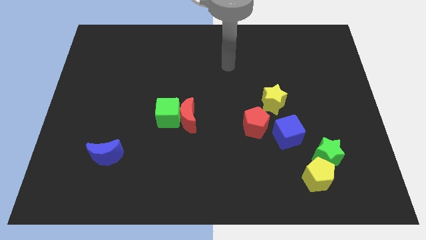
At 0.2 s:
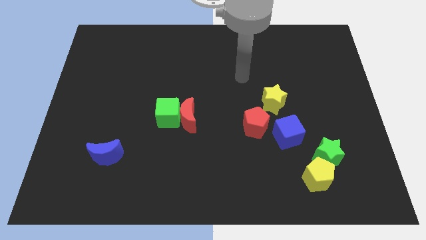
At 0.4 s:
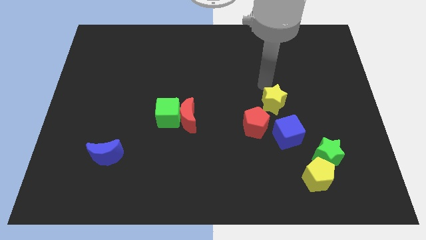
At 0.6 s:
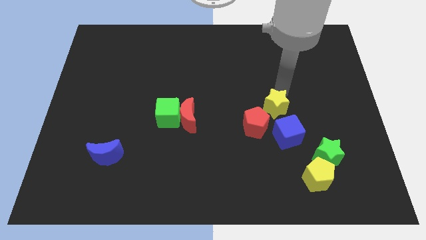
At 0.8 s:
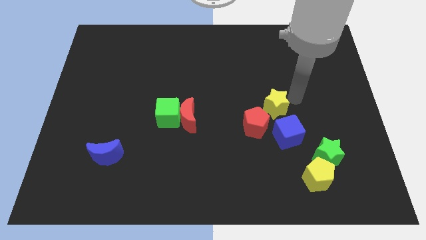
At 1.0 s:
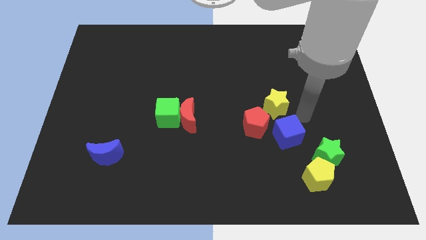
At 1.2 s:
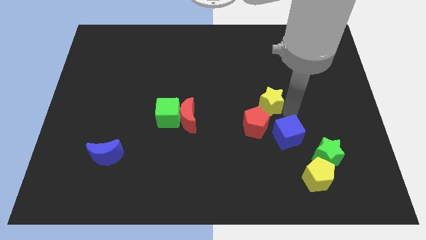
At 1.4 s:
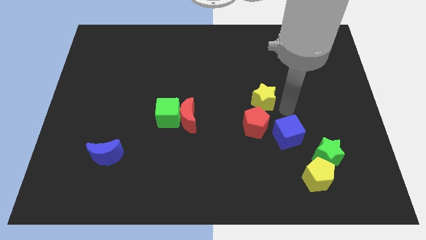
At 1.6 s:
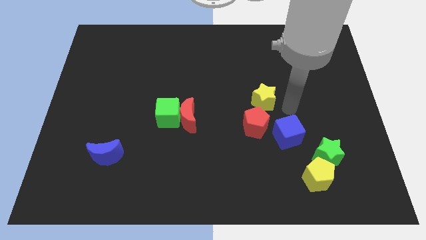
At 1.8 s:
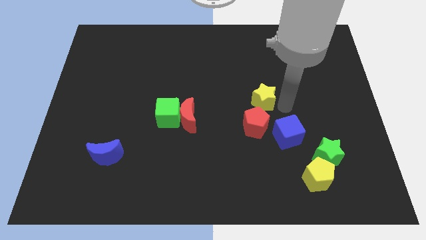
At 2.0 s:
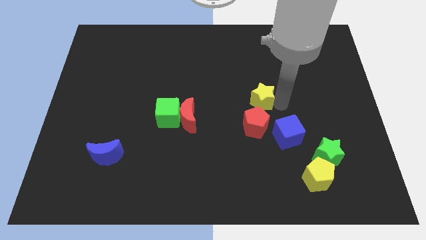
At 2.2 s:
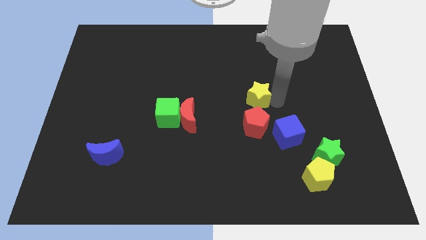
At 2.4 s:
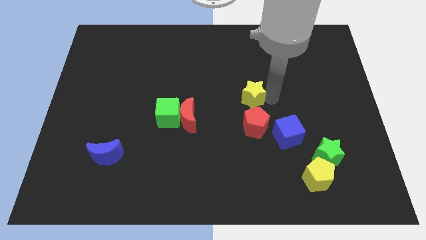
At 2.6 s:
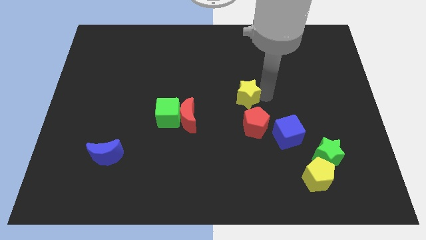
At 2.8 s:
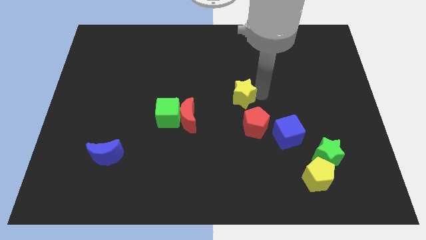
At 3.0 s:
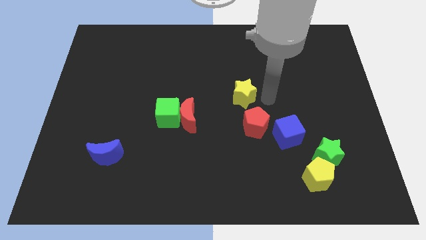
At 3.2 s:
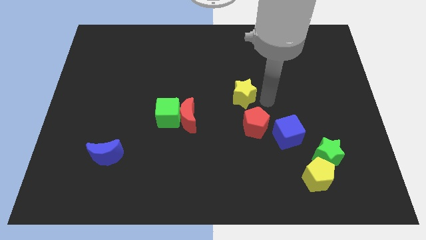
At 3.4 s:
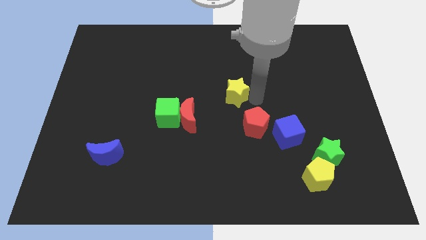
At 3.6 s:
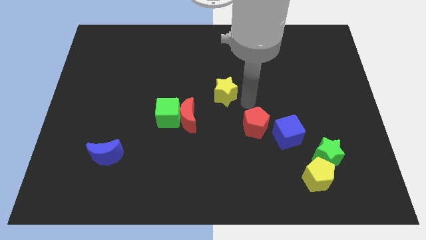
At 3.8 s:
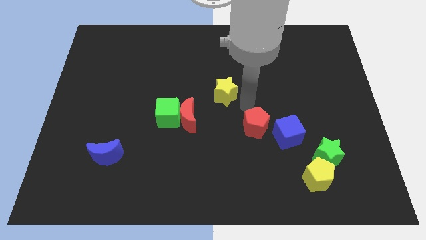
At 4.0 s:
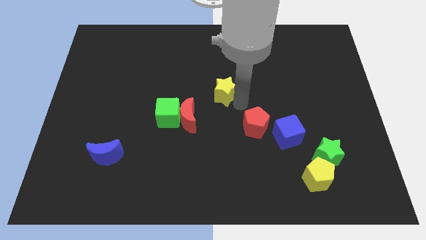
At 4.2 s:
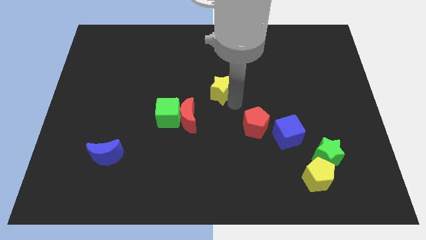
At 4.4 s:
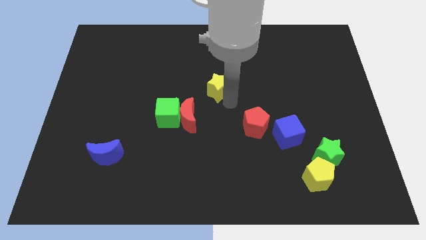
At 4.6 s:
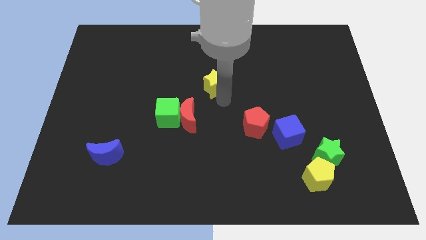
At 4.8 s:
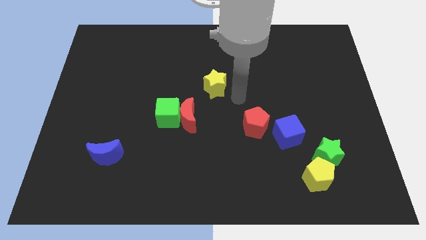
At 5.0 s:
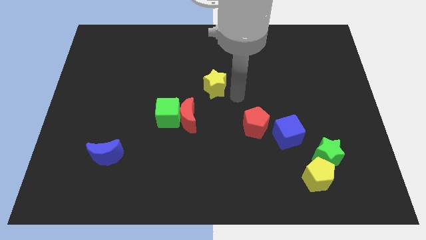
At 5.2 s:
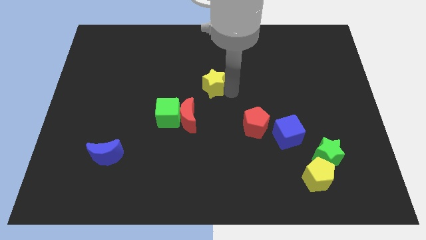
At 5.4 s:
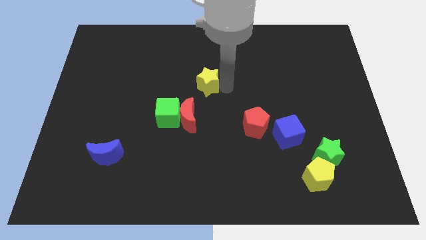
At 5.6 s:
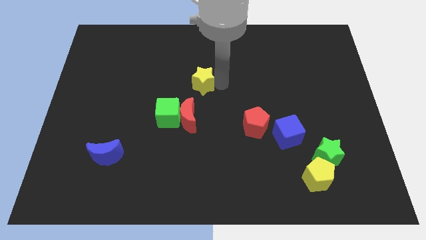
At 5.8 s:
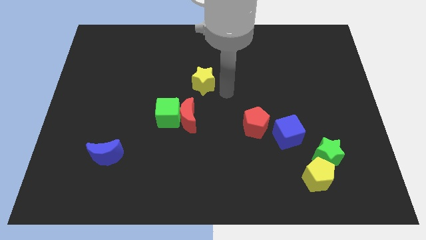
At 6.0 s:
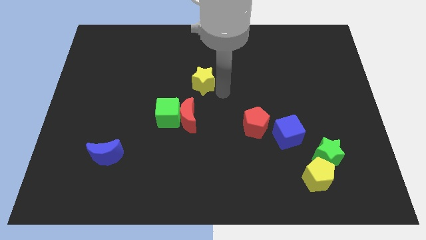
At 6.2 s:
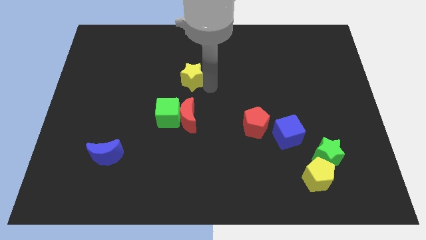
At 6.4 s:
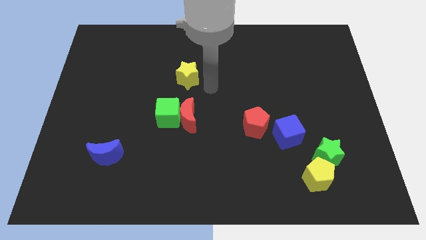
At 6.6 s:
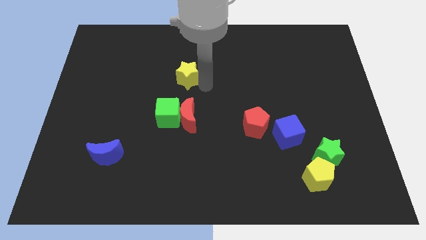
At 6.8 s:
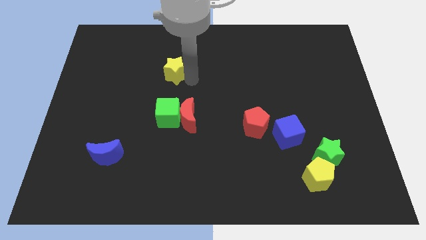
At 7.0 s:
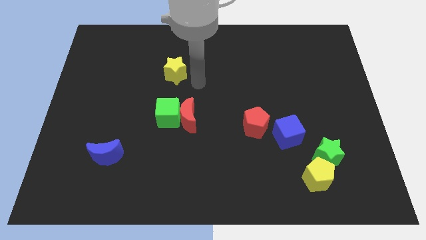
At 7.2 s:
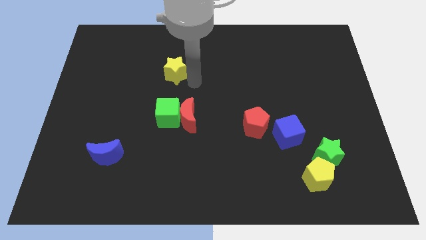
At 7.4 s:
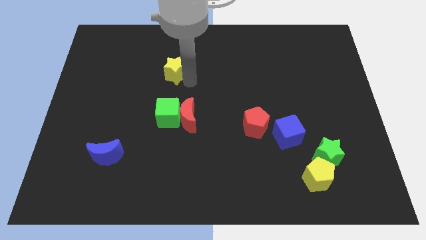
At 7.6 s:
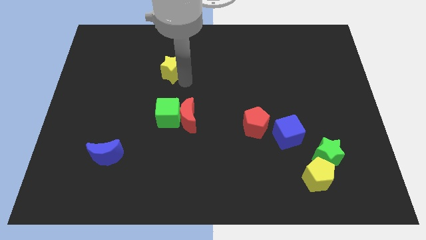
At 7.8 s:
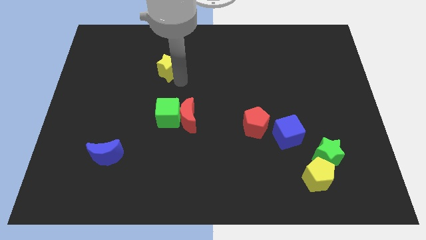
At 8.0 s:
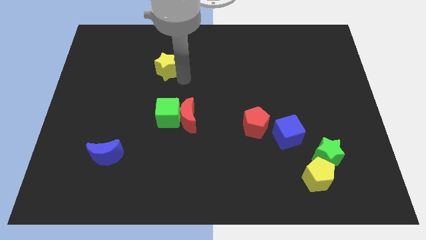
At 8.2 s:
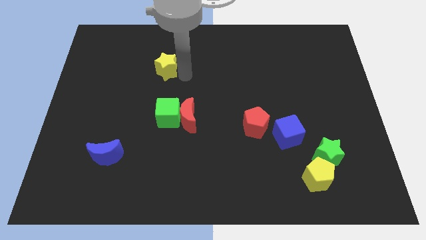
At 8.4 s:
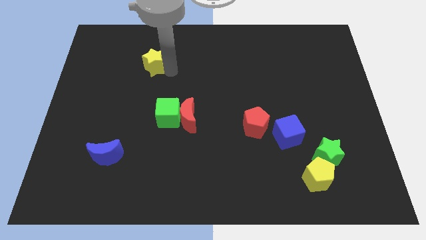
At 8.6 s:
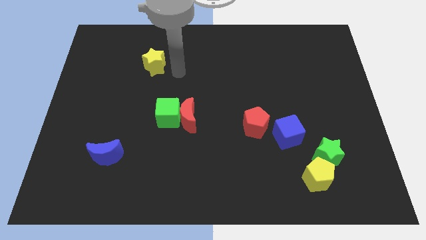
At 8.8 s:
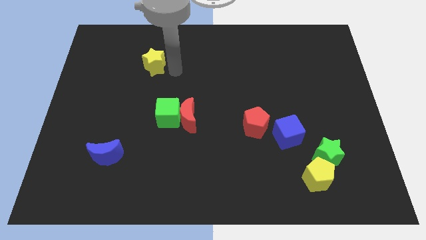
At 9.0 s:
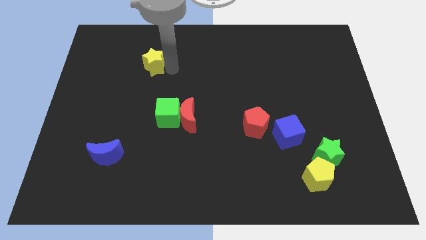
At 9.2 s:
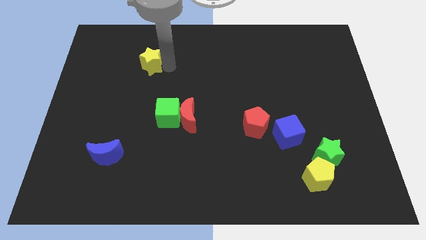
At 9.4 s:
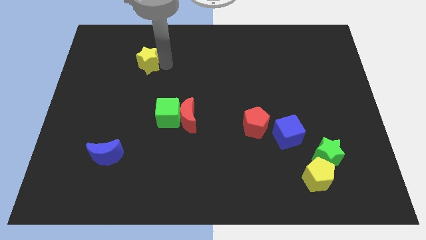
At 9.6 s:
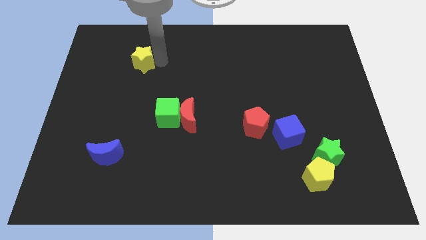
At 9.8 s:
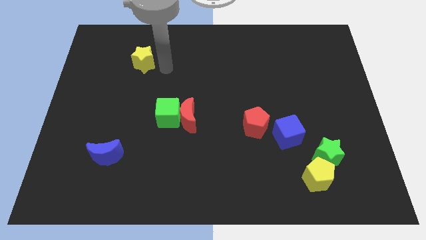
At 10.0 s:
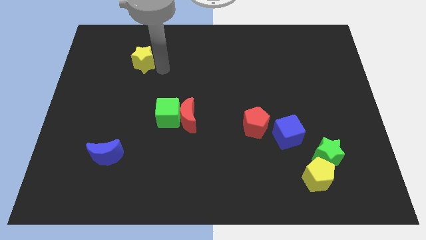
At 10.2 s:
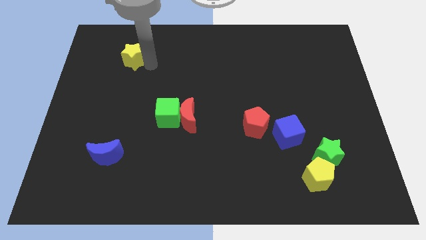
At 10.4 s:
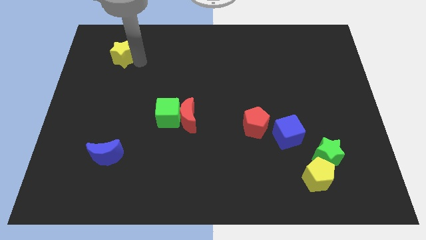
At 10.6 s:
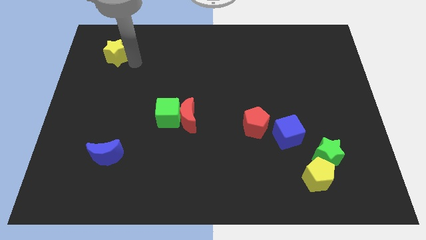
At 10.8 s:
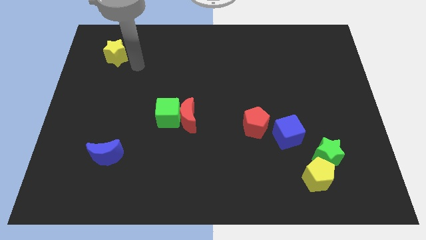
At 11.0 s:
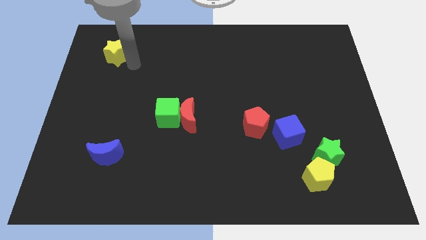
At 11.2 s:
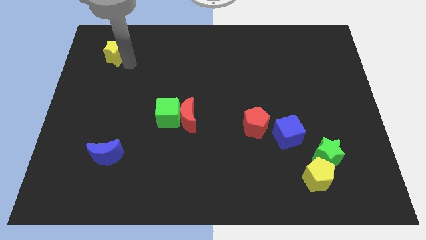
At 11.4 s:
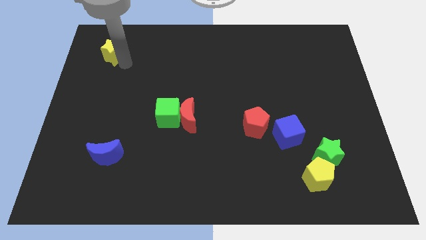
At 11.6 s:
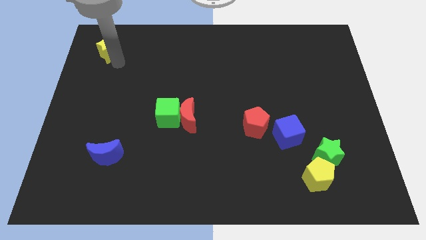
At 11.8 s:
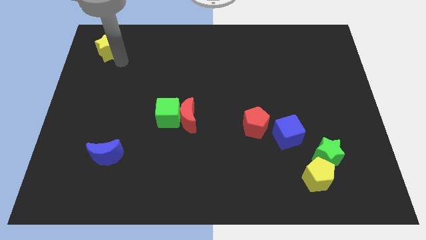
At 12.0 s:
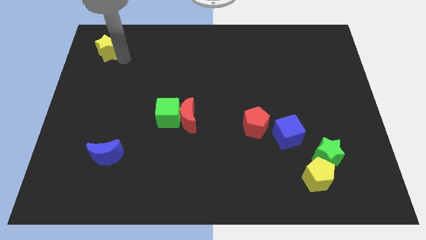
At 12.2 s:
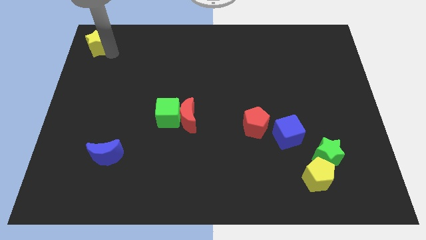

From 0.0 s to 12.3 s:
slide the yellow star to the top left
